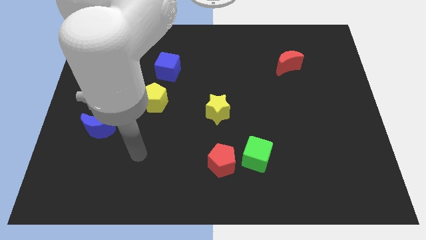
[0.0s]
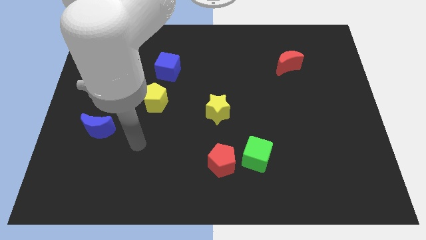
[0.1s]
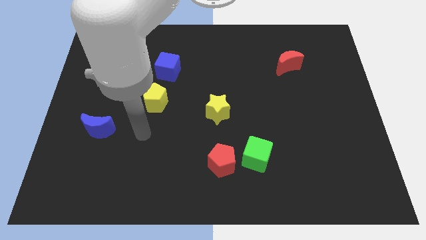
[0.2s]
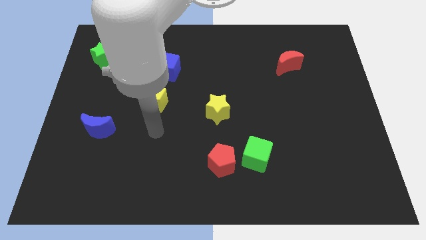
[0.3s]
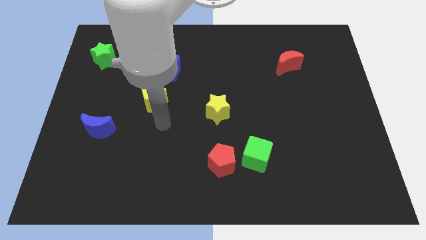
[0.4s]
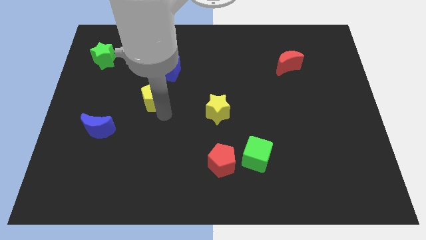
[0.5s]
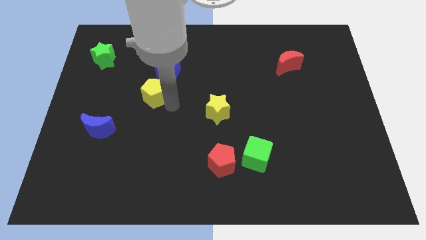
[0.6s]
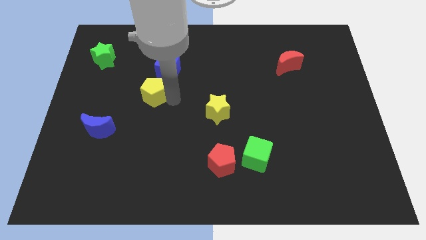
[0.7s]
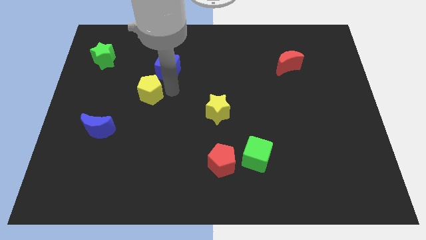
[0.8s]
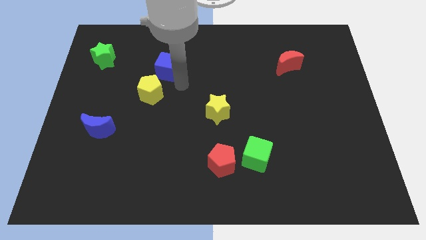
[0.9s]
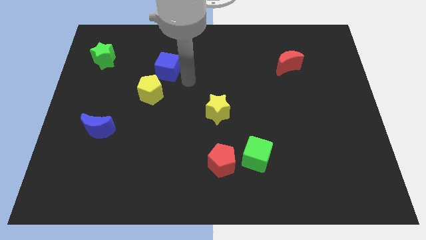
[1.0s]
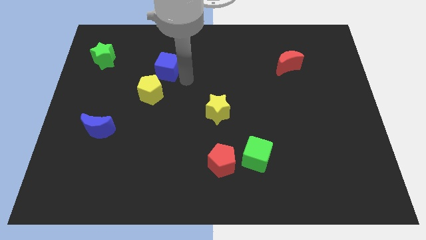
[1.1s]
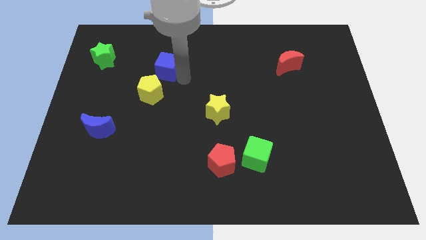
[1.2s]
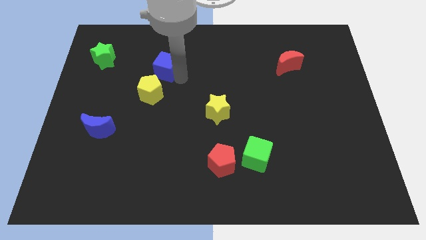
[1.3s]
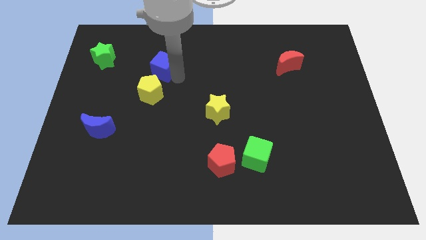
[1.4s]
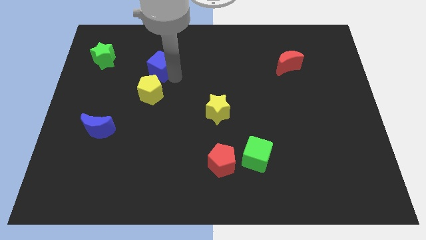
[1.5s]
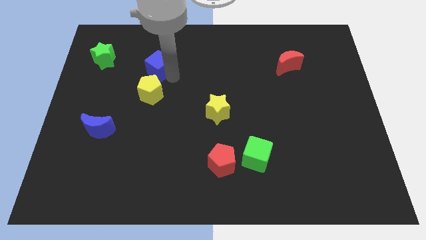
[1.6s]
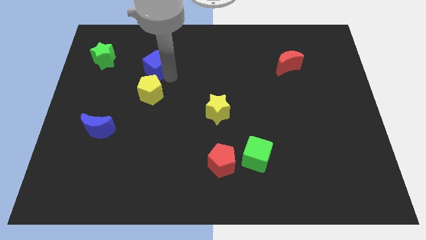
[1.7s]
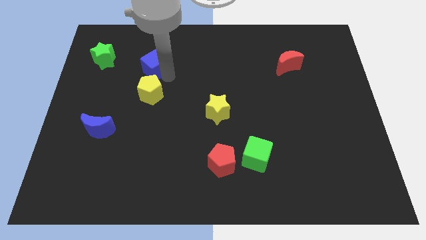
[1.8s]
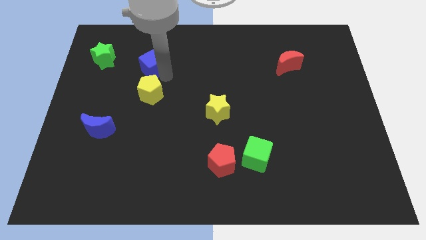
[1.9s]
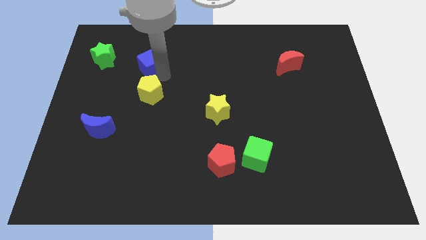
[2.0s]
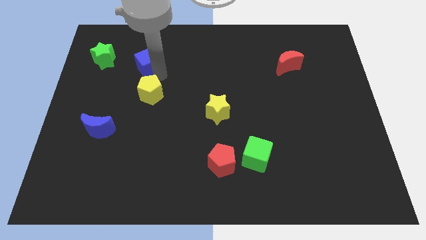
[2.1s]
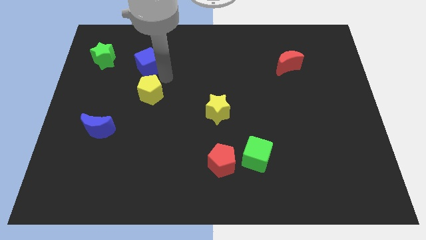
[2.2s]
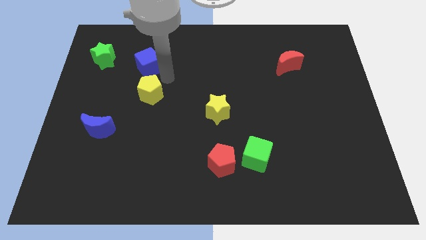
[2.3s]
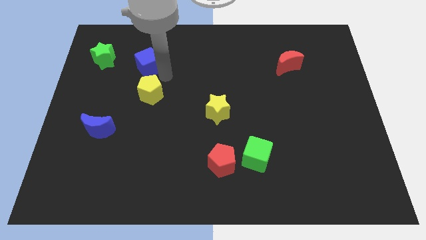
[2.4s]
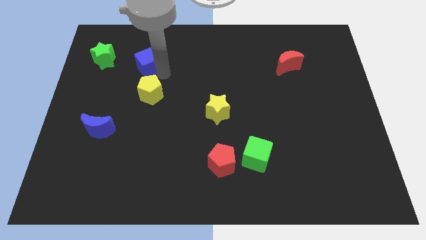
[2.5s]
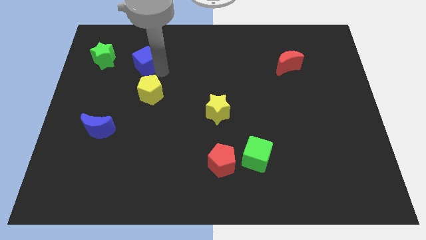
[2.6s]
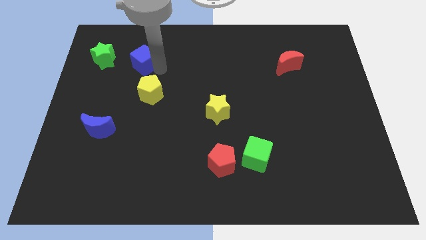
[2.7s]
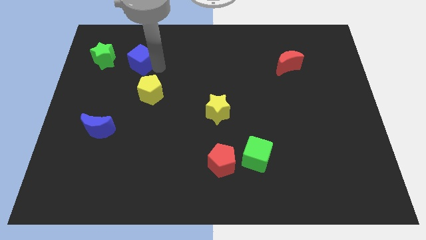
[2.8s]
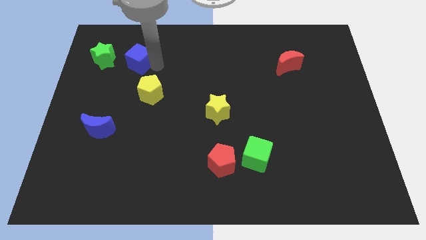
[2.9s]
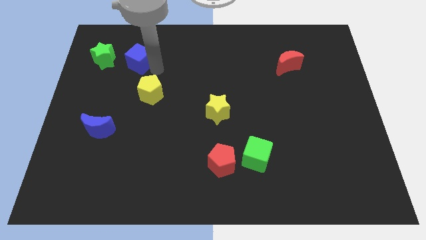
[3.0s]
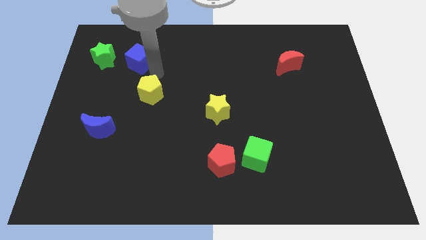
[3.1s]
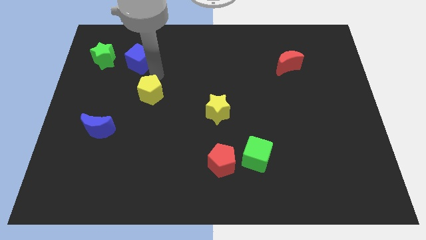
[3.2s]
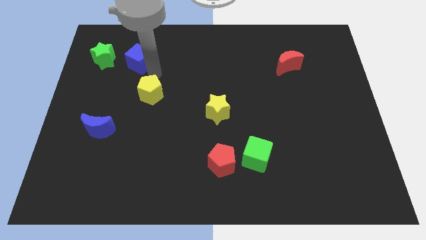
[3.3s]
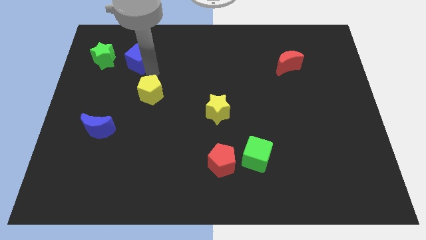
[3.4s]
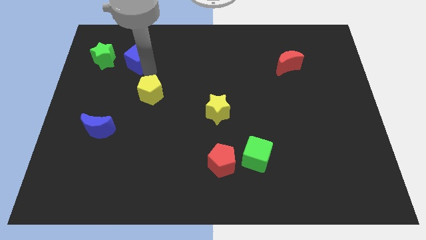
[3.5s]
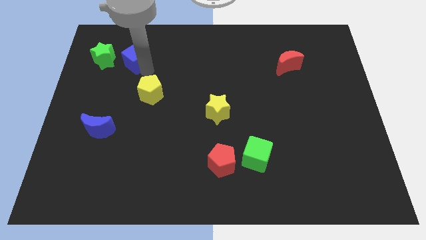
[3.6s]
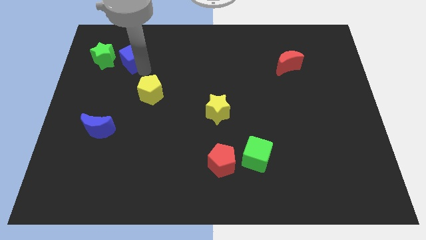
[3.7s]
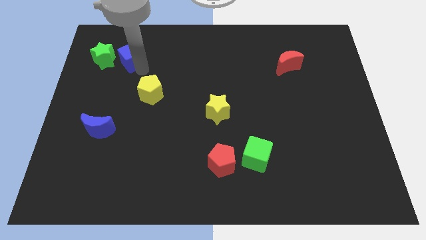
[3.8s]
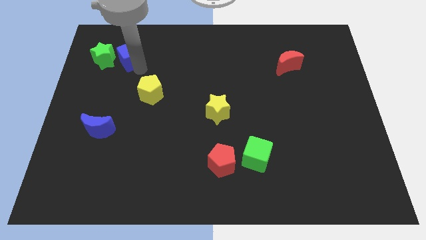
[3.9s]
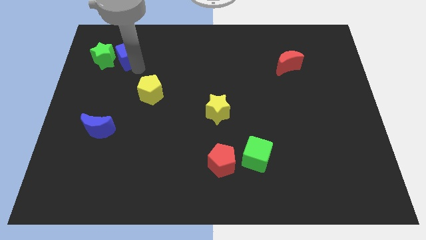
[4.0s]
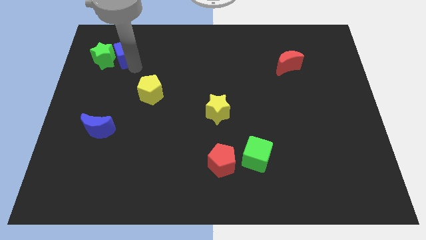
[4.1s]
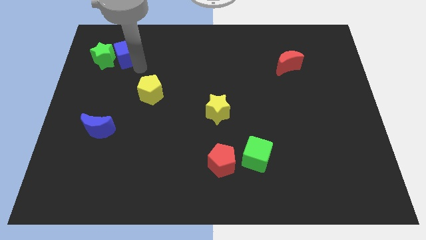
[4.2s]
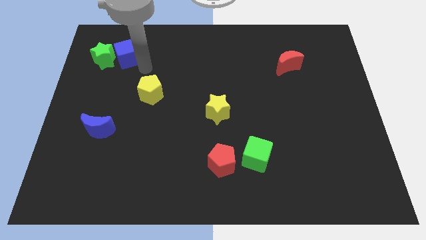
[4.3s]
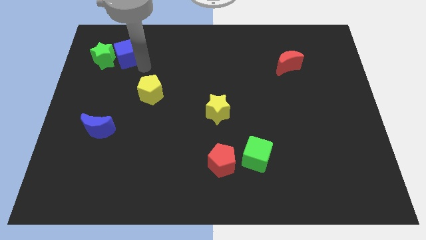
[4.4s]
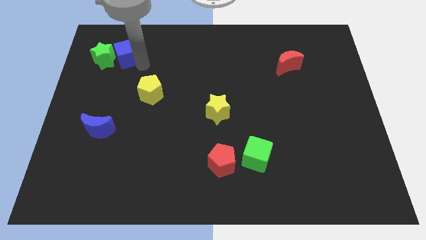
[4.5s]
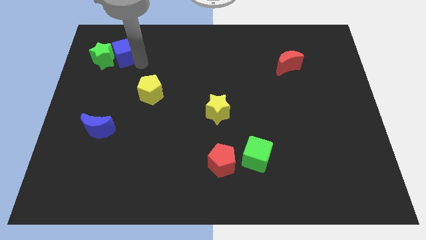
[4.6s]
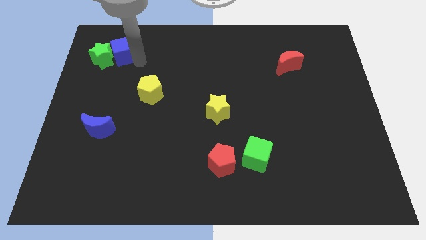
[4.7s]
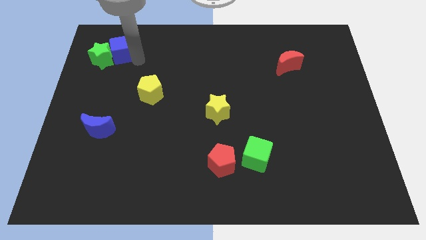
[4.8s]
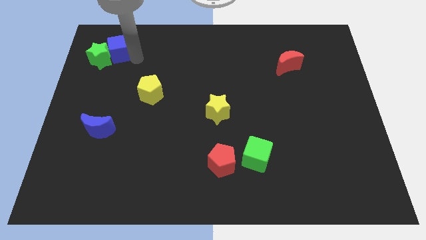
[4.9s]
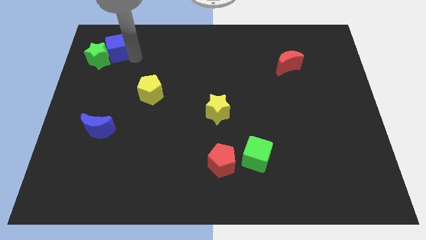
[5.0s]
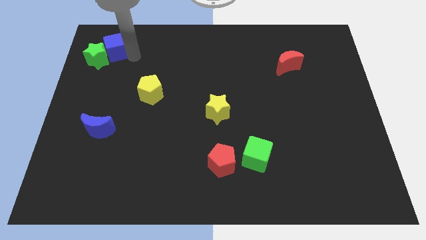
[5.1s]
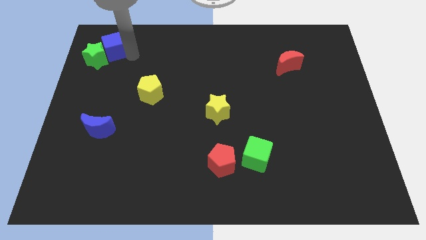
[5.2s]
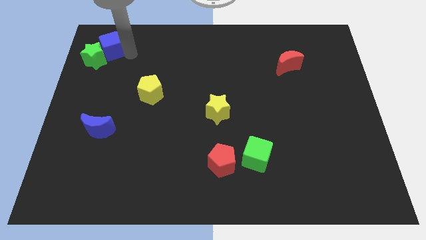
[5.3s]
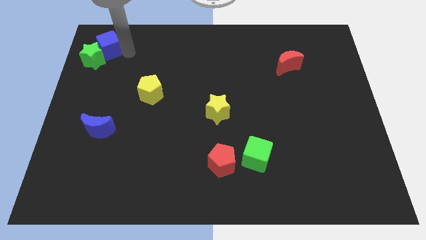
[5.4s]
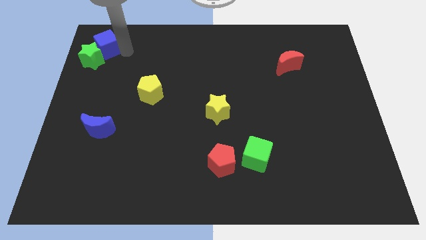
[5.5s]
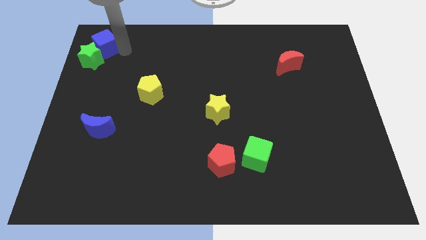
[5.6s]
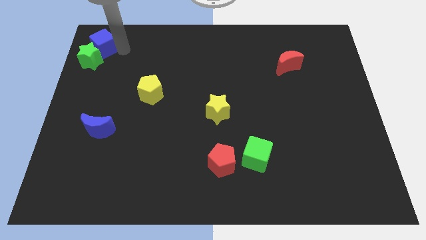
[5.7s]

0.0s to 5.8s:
slide the blue cube to the top left of the board
